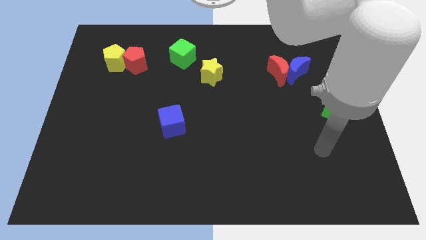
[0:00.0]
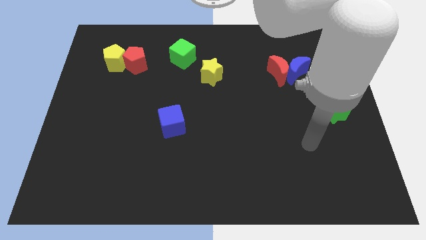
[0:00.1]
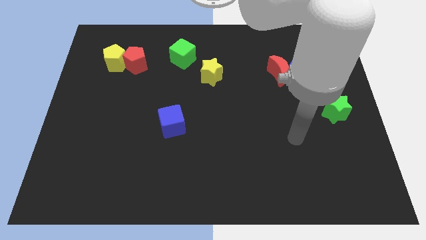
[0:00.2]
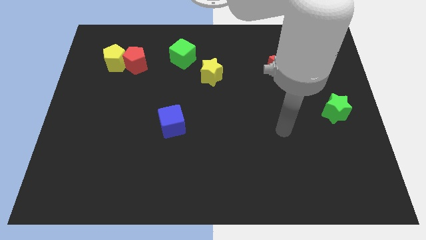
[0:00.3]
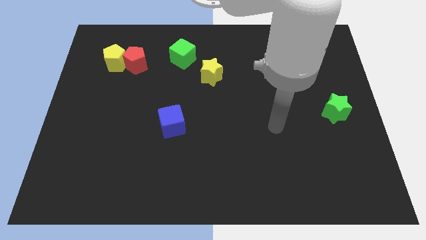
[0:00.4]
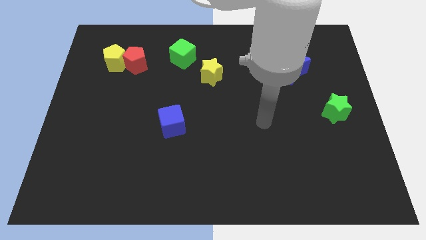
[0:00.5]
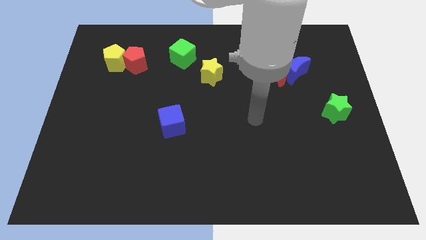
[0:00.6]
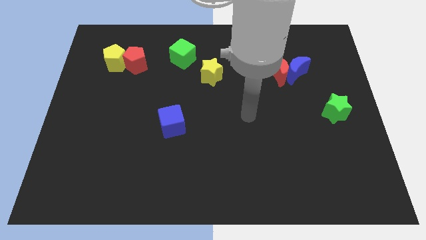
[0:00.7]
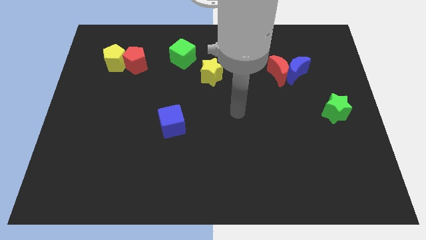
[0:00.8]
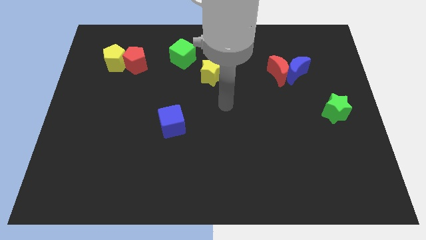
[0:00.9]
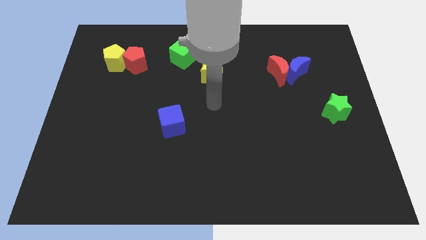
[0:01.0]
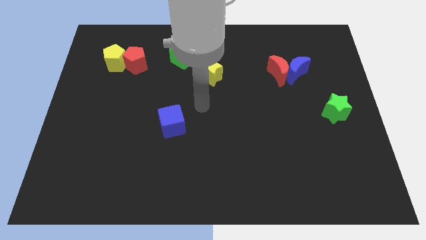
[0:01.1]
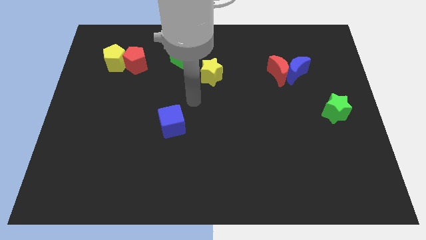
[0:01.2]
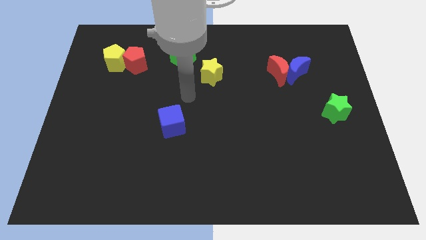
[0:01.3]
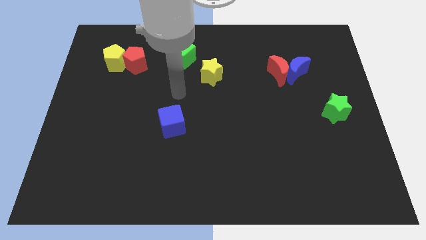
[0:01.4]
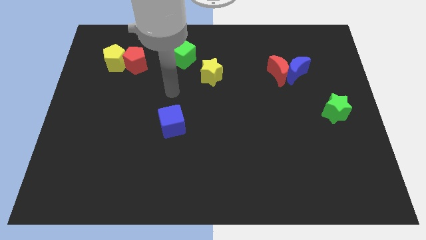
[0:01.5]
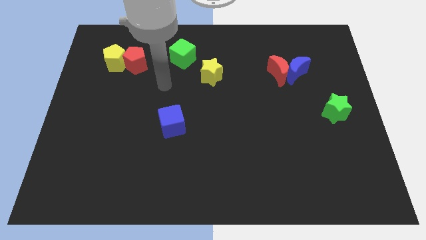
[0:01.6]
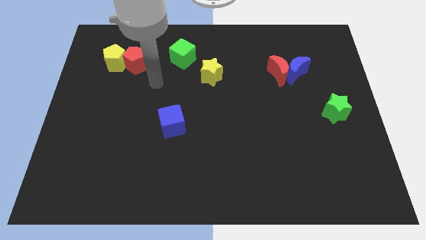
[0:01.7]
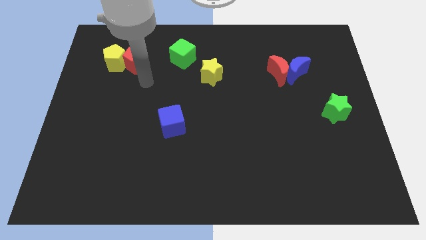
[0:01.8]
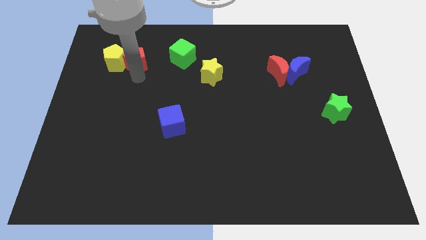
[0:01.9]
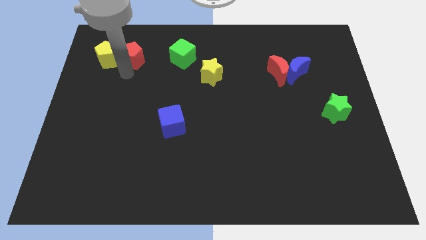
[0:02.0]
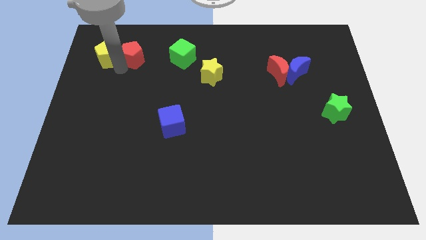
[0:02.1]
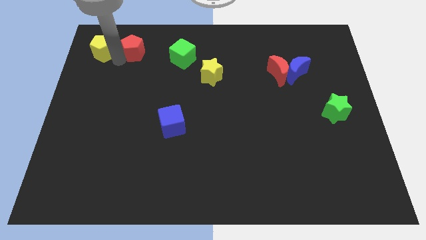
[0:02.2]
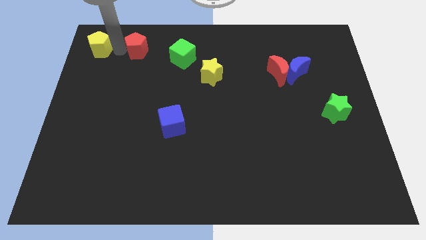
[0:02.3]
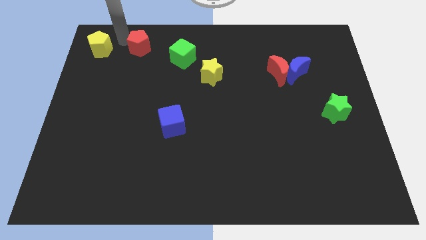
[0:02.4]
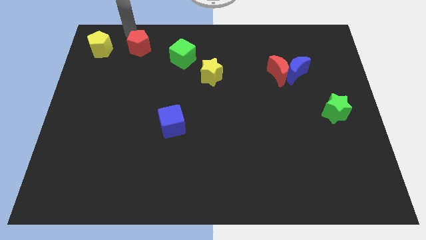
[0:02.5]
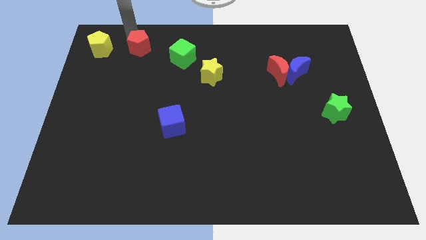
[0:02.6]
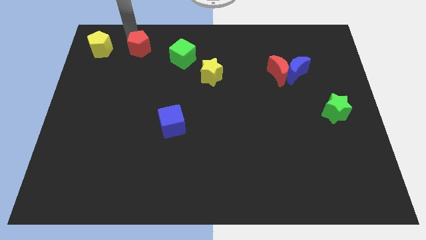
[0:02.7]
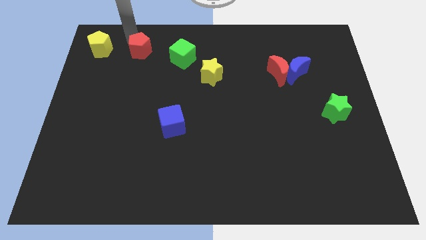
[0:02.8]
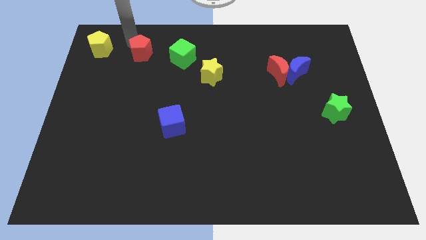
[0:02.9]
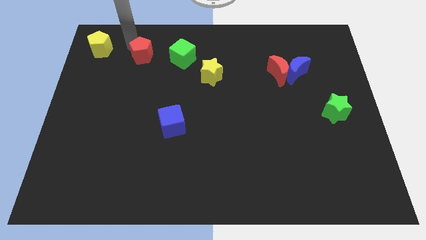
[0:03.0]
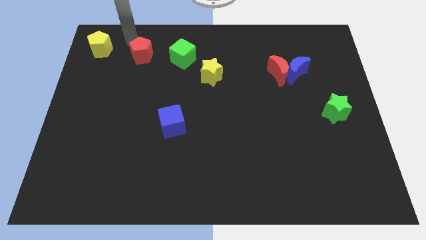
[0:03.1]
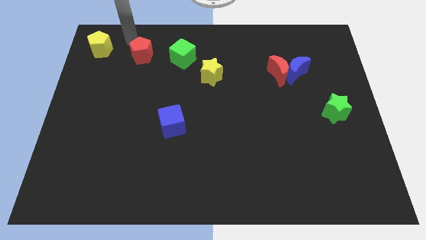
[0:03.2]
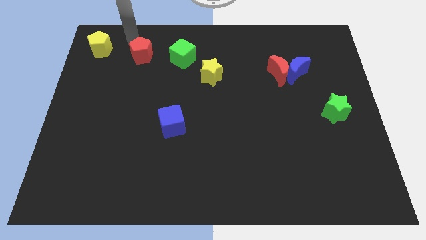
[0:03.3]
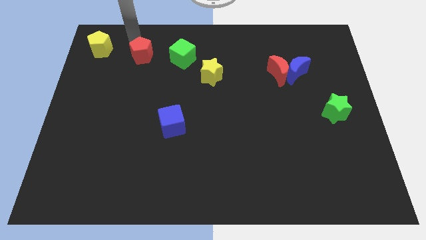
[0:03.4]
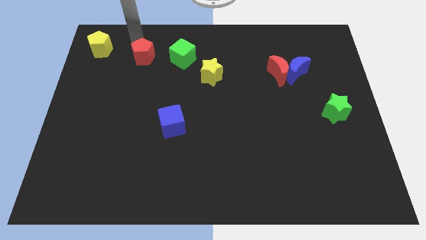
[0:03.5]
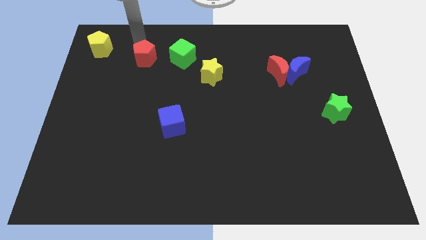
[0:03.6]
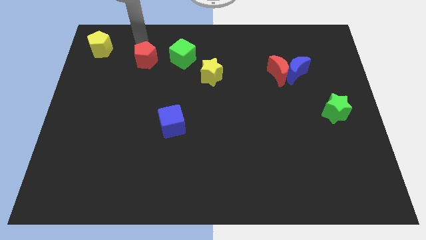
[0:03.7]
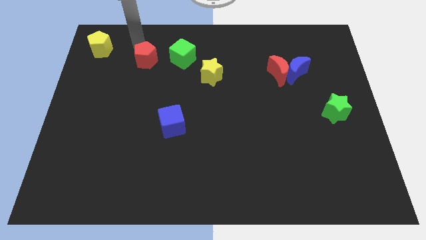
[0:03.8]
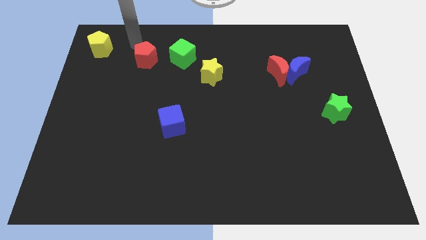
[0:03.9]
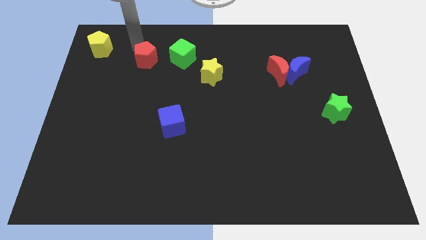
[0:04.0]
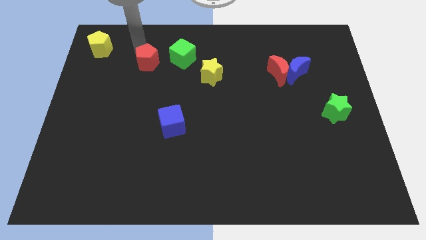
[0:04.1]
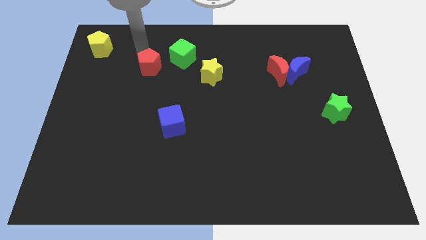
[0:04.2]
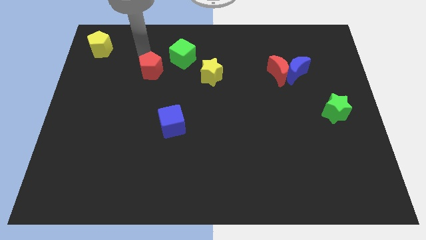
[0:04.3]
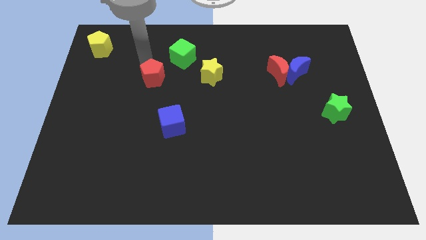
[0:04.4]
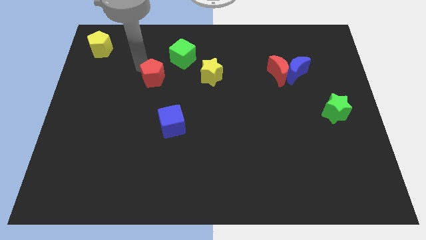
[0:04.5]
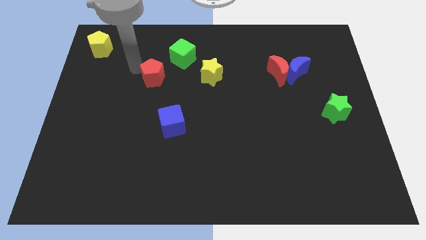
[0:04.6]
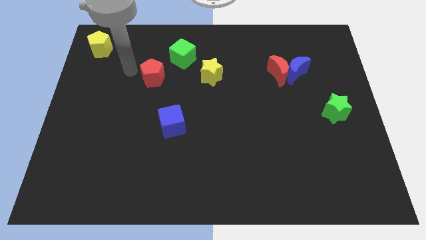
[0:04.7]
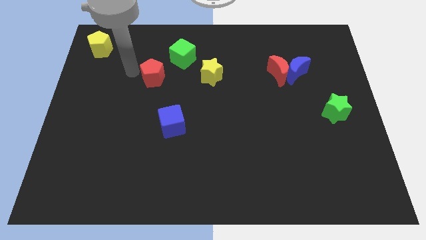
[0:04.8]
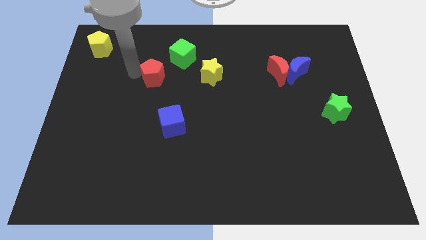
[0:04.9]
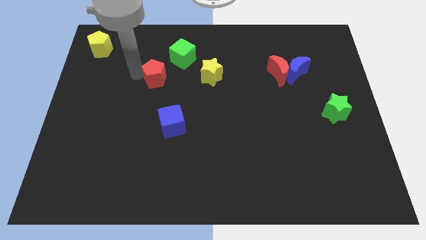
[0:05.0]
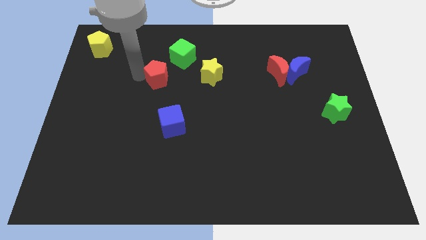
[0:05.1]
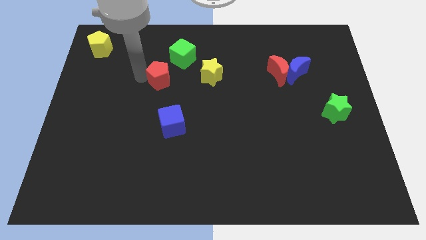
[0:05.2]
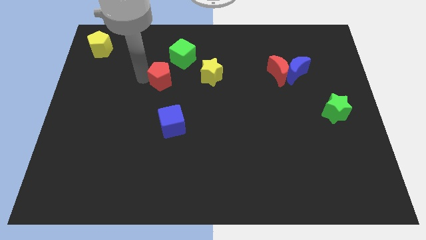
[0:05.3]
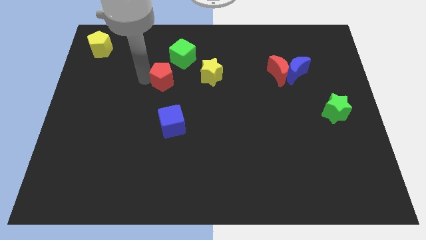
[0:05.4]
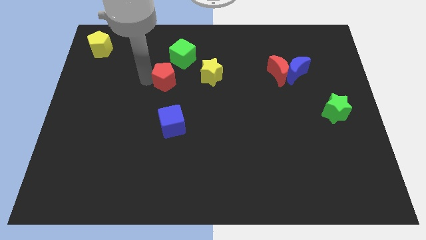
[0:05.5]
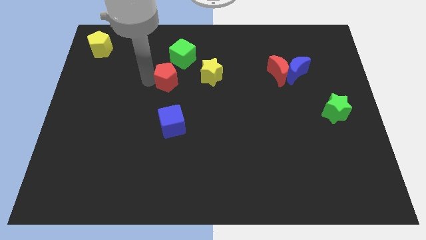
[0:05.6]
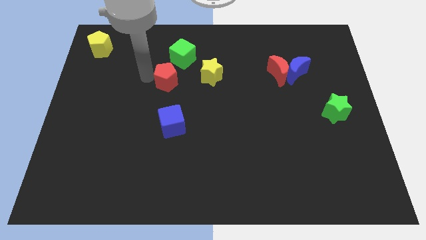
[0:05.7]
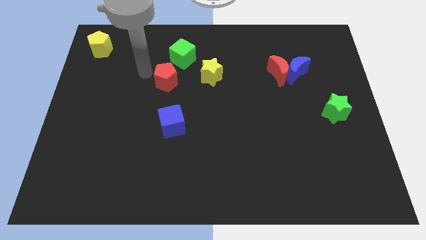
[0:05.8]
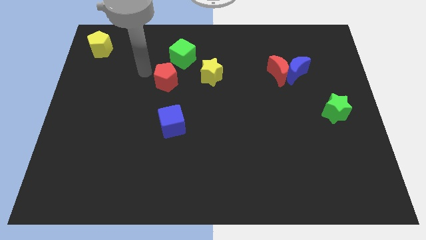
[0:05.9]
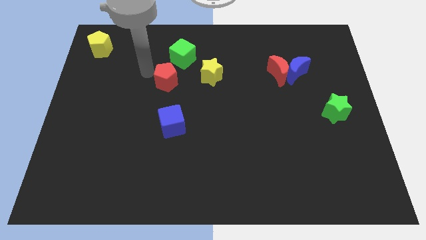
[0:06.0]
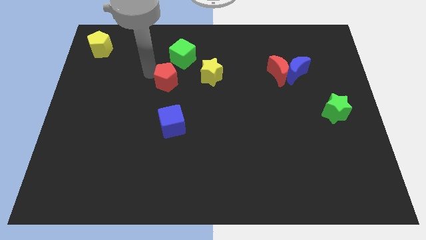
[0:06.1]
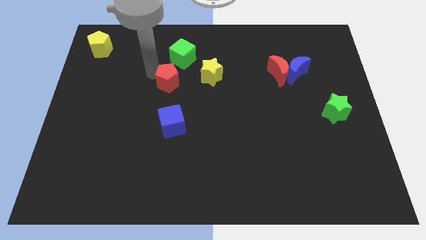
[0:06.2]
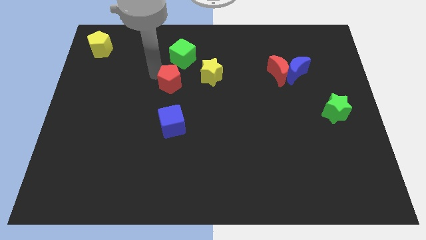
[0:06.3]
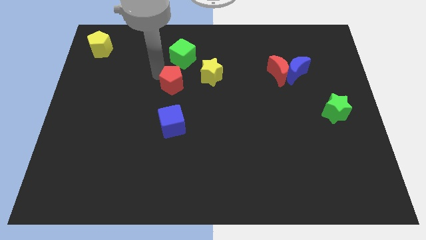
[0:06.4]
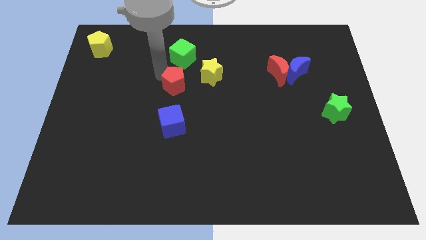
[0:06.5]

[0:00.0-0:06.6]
push the red pentagon to the bottom left of the yellow star

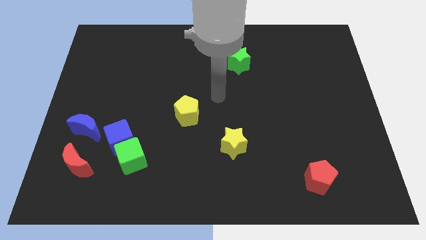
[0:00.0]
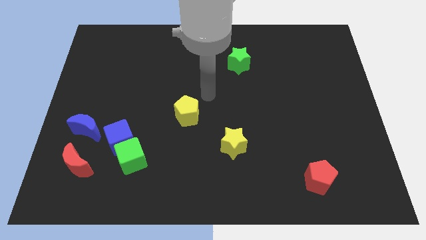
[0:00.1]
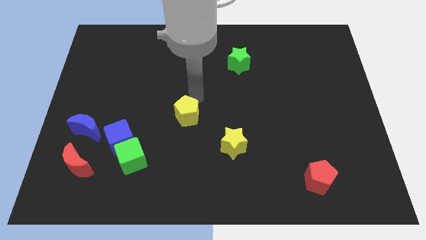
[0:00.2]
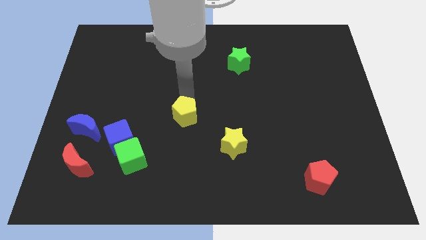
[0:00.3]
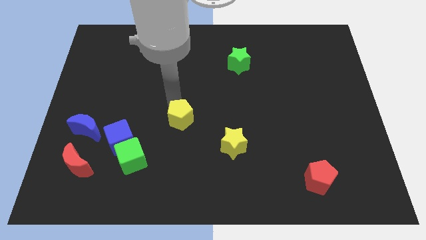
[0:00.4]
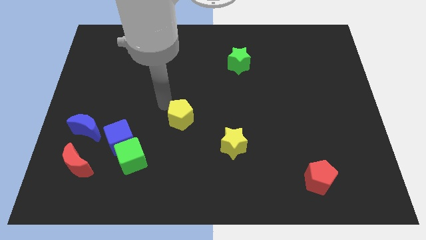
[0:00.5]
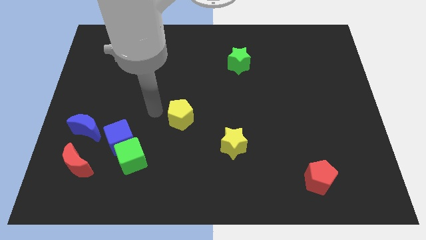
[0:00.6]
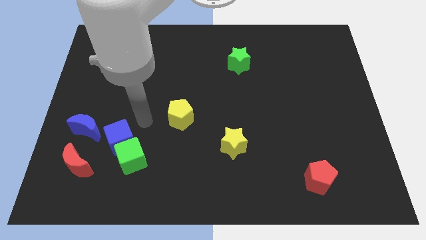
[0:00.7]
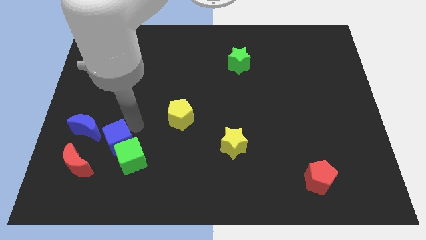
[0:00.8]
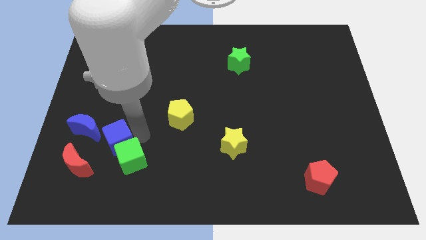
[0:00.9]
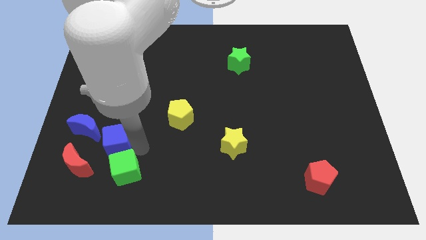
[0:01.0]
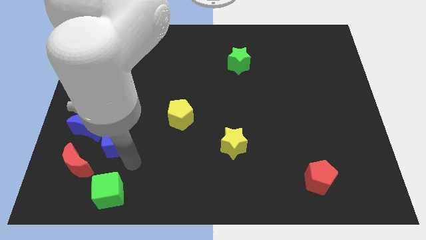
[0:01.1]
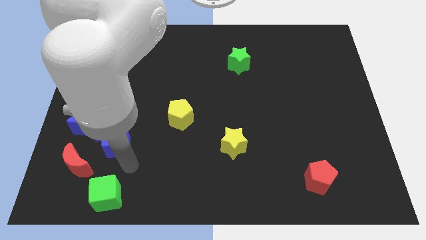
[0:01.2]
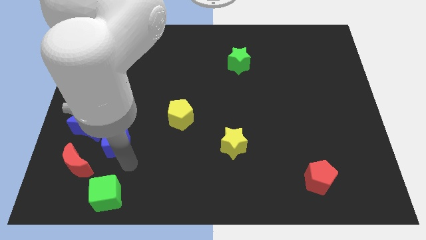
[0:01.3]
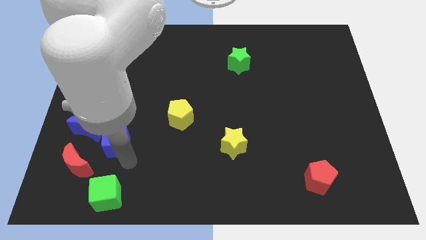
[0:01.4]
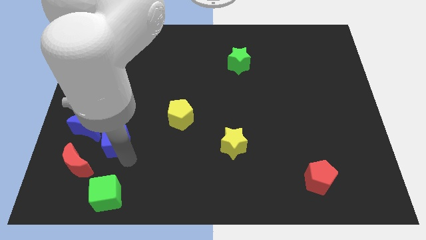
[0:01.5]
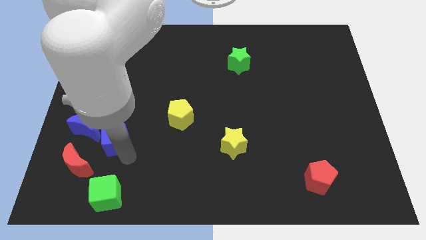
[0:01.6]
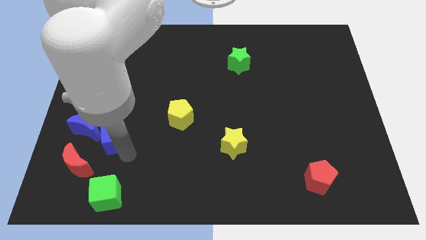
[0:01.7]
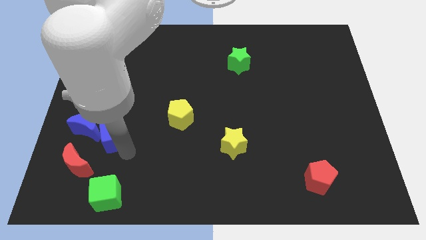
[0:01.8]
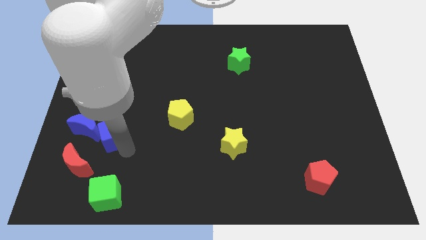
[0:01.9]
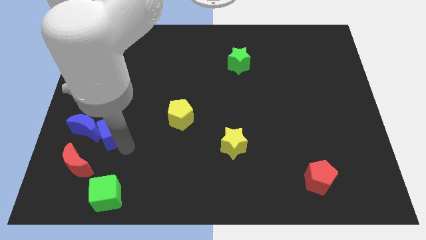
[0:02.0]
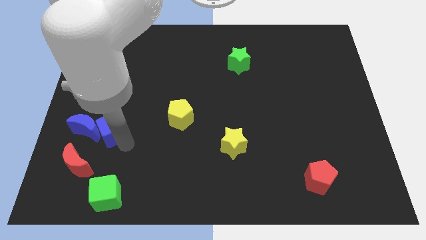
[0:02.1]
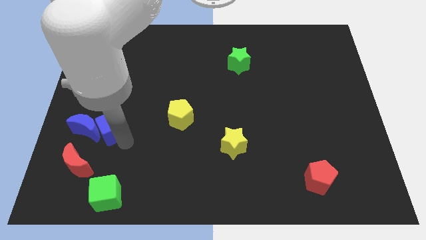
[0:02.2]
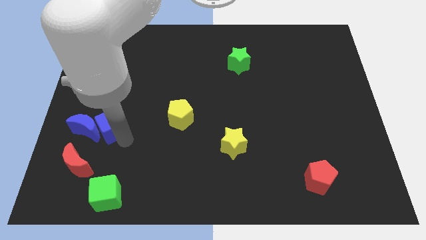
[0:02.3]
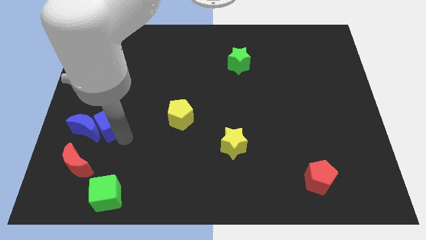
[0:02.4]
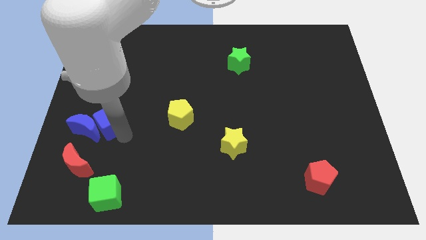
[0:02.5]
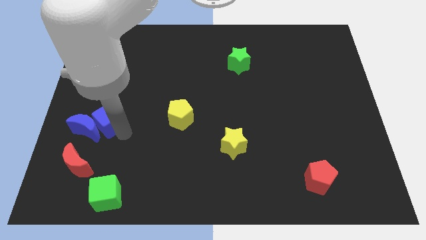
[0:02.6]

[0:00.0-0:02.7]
push the blue cube above the red moon
